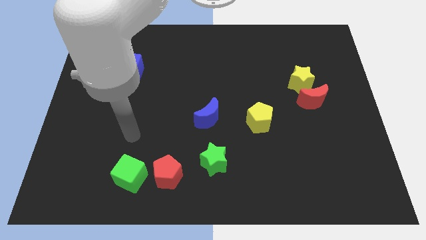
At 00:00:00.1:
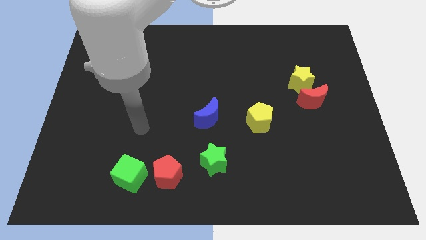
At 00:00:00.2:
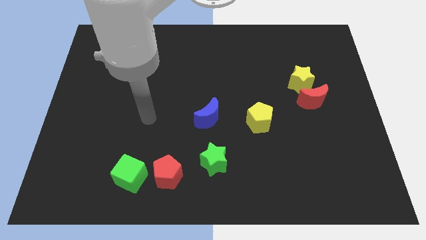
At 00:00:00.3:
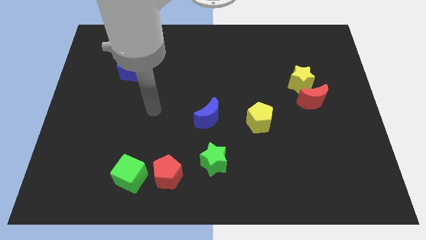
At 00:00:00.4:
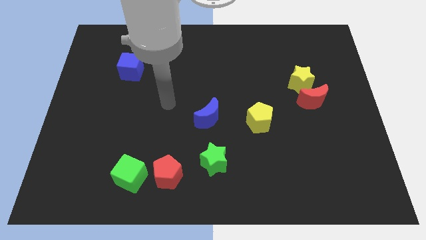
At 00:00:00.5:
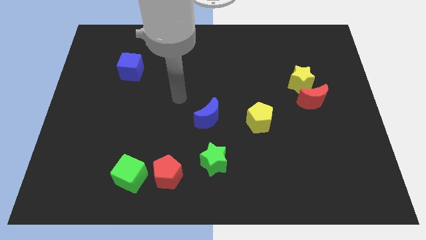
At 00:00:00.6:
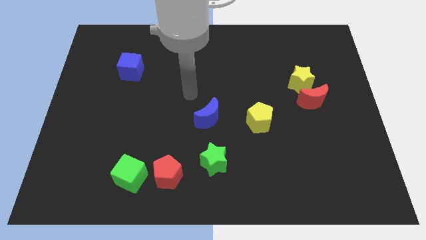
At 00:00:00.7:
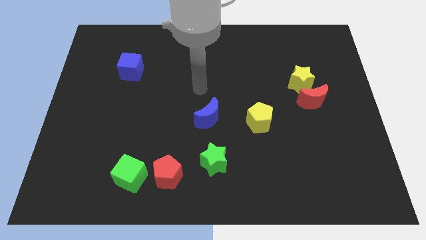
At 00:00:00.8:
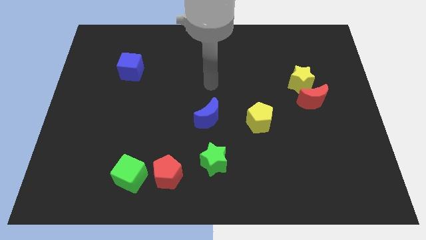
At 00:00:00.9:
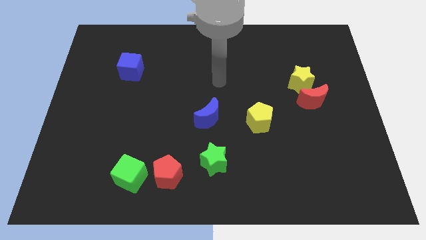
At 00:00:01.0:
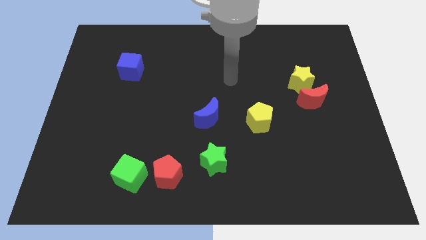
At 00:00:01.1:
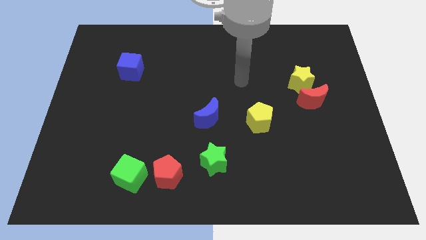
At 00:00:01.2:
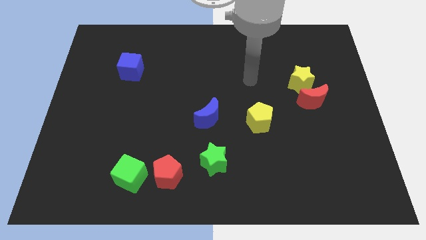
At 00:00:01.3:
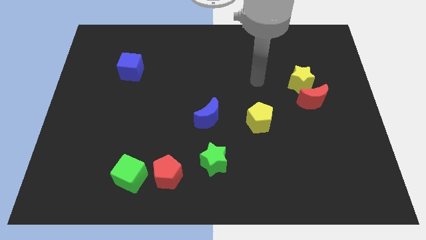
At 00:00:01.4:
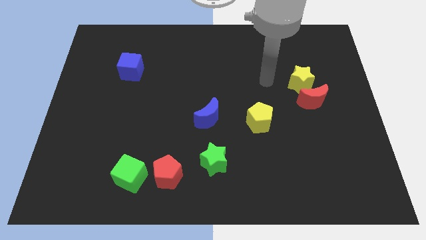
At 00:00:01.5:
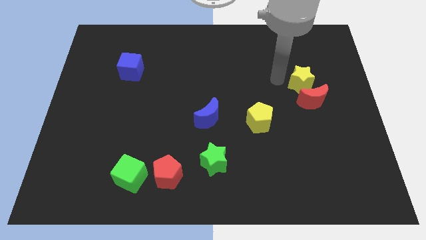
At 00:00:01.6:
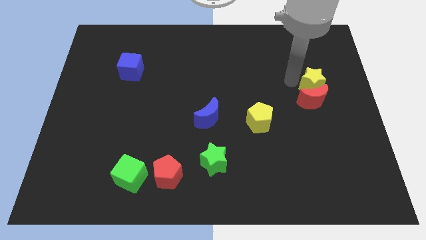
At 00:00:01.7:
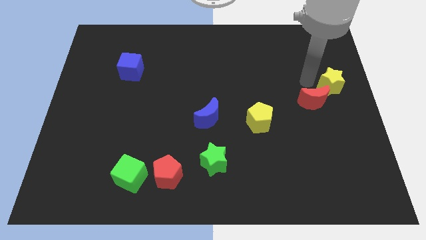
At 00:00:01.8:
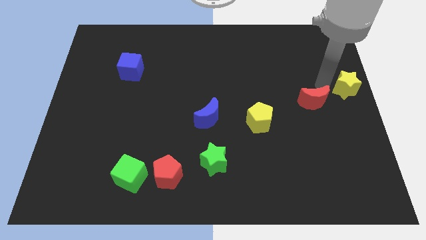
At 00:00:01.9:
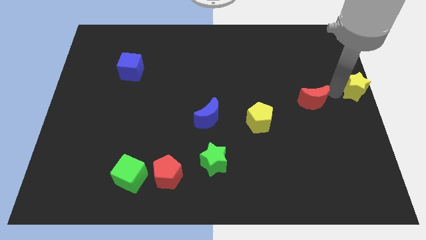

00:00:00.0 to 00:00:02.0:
move the red moon away from the yellow star

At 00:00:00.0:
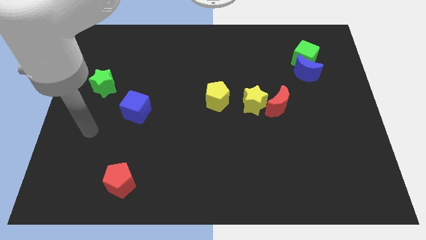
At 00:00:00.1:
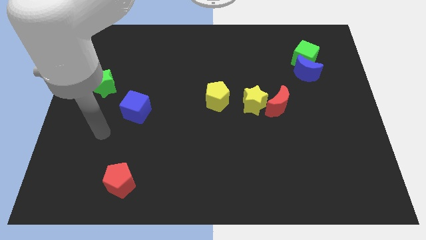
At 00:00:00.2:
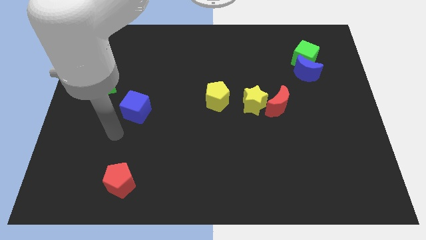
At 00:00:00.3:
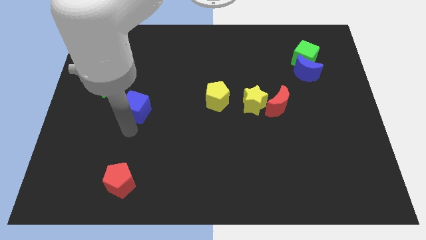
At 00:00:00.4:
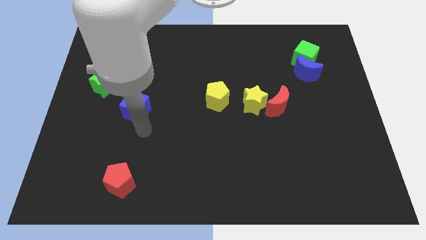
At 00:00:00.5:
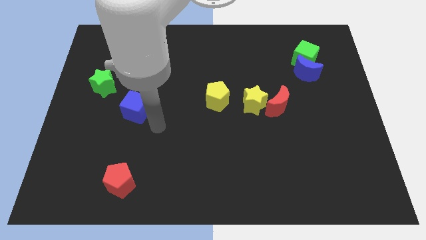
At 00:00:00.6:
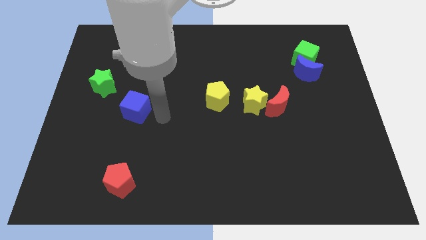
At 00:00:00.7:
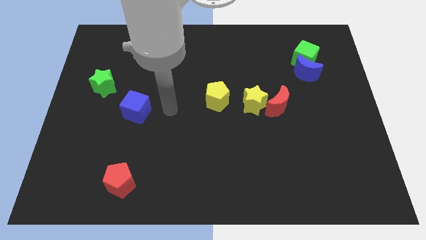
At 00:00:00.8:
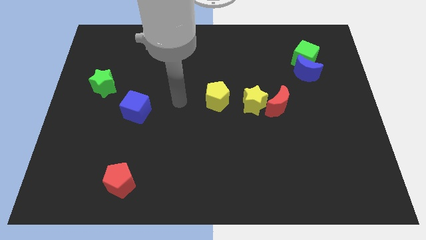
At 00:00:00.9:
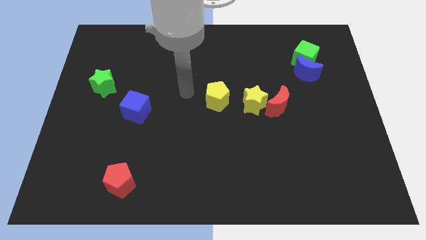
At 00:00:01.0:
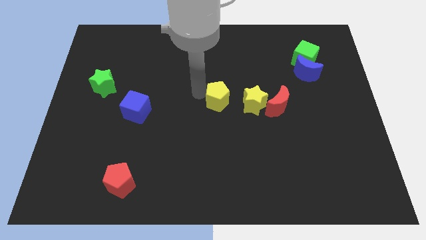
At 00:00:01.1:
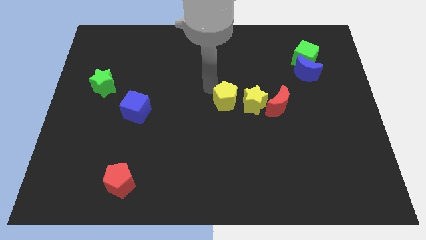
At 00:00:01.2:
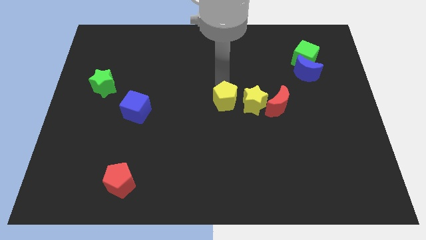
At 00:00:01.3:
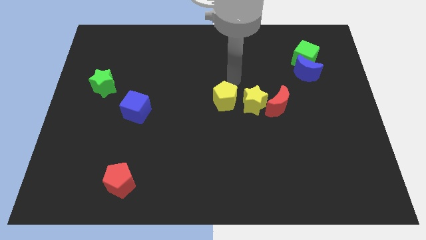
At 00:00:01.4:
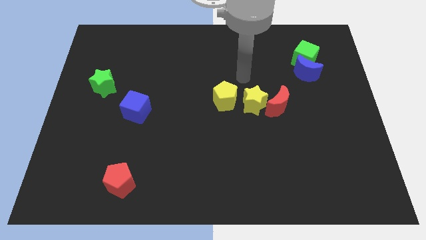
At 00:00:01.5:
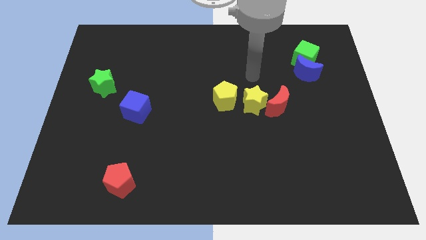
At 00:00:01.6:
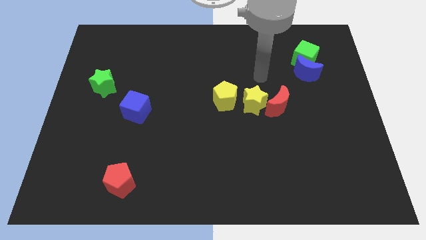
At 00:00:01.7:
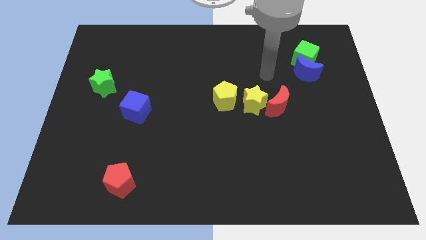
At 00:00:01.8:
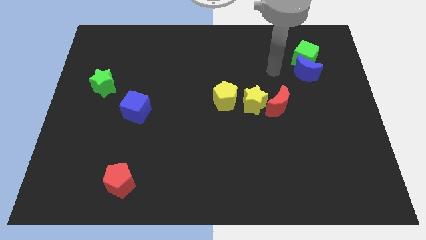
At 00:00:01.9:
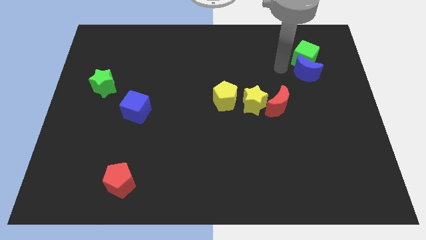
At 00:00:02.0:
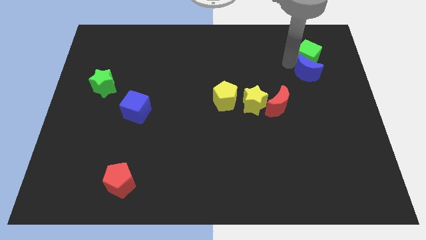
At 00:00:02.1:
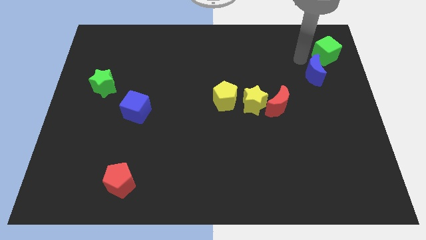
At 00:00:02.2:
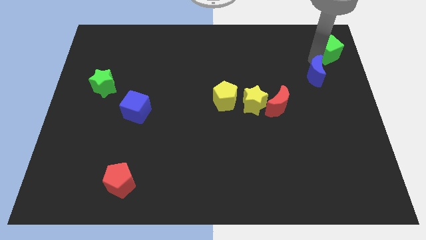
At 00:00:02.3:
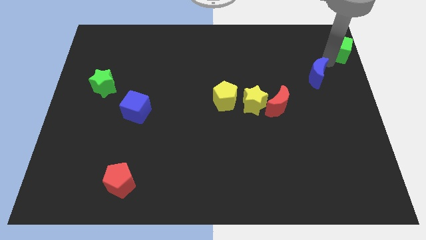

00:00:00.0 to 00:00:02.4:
pull the blue moon apart from the green cube

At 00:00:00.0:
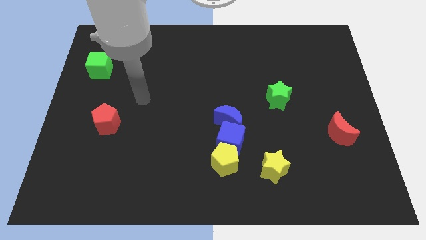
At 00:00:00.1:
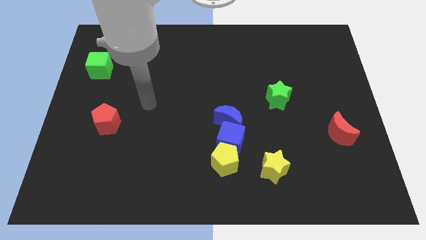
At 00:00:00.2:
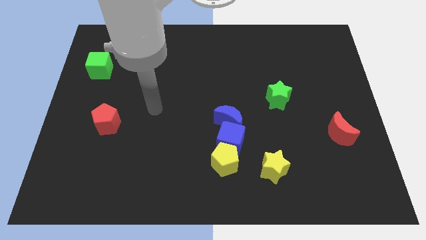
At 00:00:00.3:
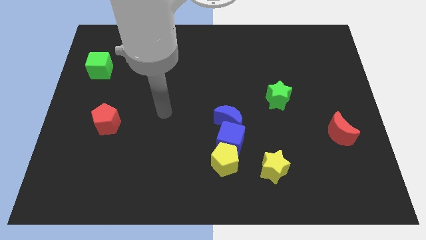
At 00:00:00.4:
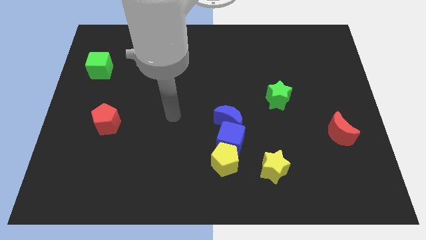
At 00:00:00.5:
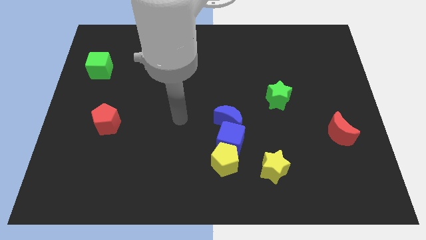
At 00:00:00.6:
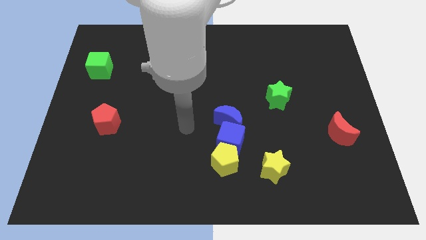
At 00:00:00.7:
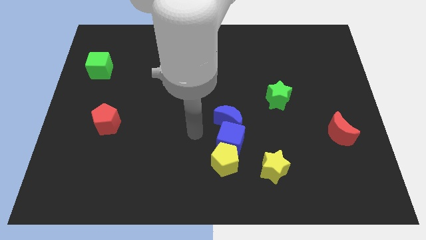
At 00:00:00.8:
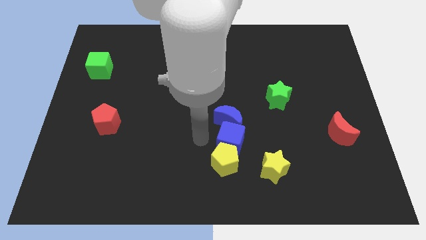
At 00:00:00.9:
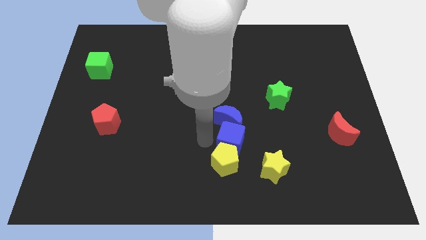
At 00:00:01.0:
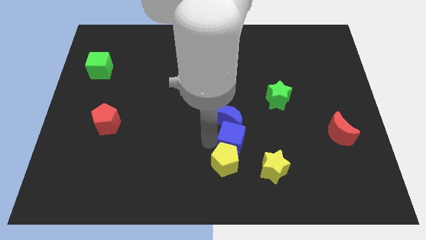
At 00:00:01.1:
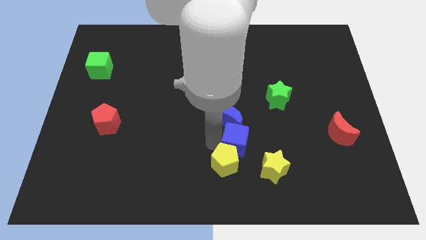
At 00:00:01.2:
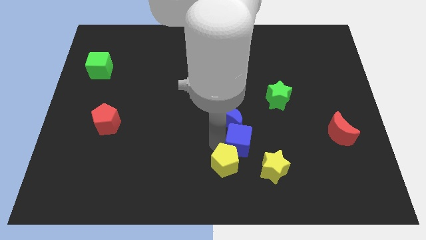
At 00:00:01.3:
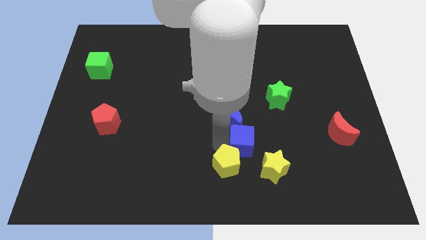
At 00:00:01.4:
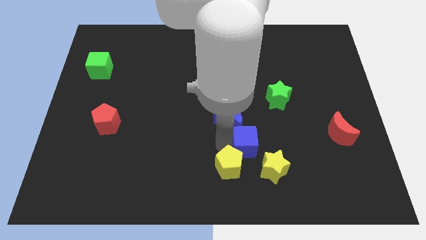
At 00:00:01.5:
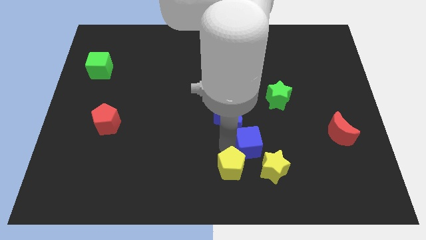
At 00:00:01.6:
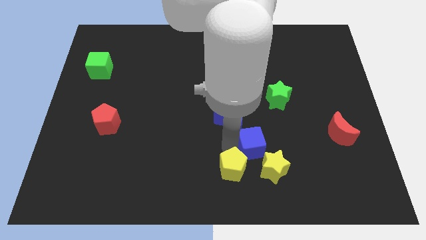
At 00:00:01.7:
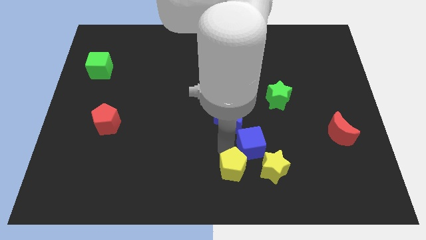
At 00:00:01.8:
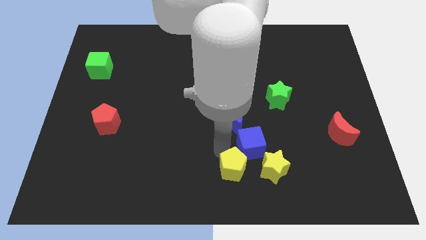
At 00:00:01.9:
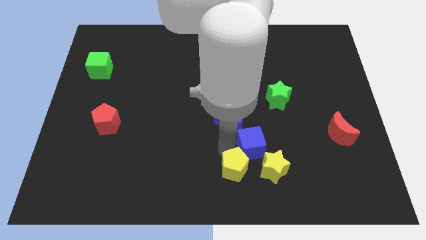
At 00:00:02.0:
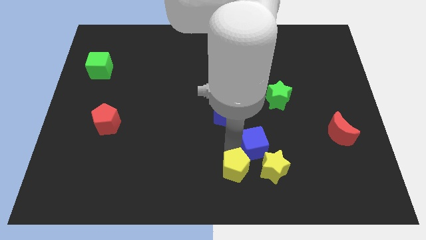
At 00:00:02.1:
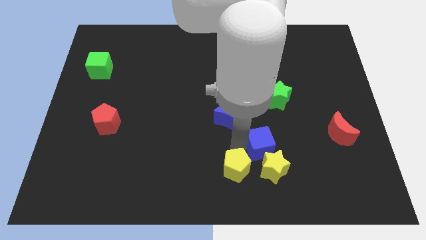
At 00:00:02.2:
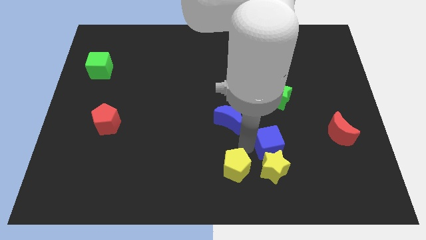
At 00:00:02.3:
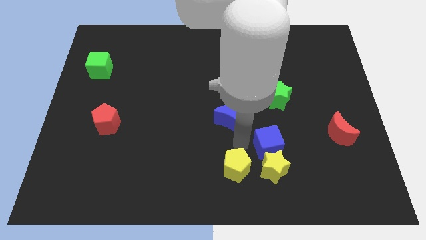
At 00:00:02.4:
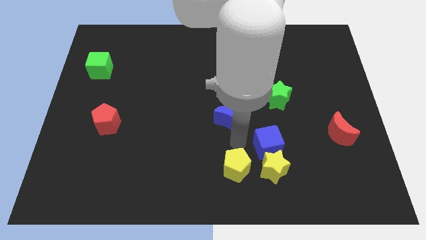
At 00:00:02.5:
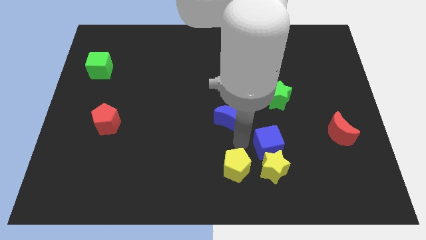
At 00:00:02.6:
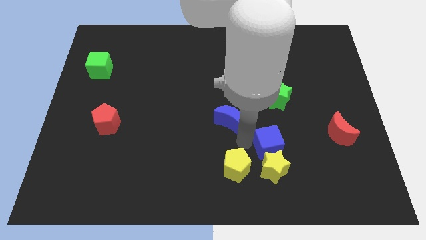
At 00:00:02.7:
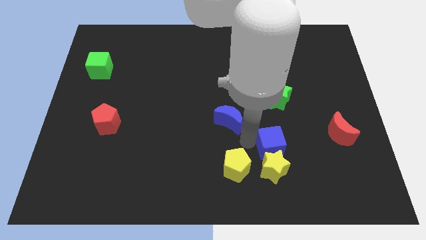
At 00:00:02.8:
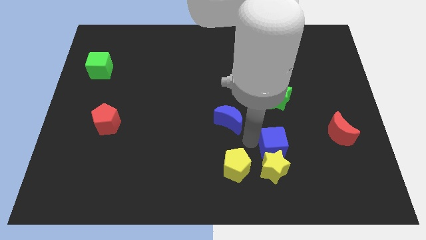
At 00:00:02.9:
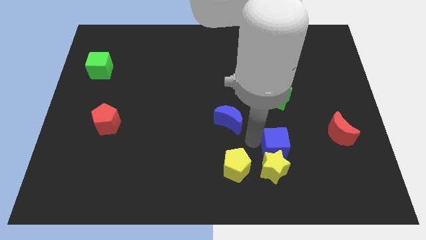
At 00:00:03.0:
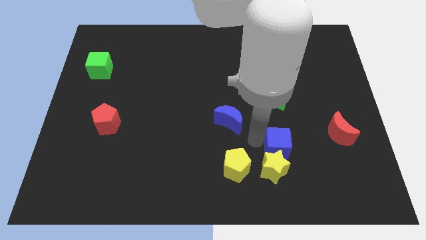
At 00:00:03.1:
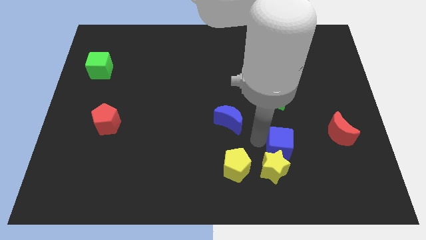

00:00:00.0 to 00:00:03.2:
separate the blue cube from the yellow pentagon and blue moon

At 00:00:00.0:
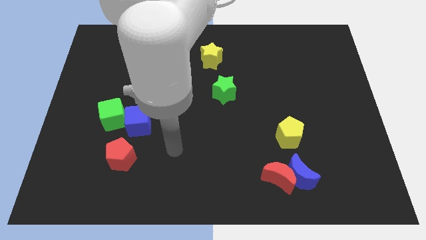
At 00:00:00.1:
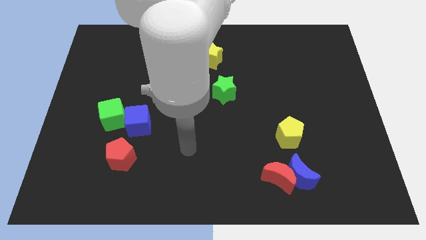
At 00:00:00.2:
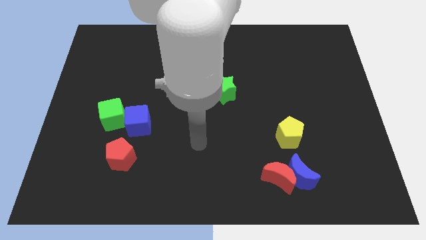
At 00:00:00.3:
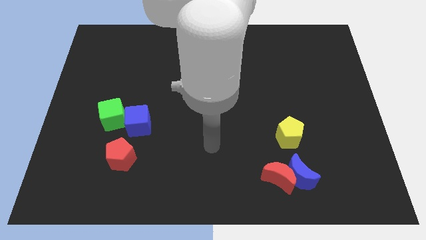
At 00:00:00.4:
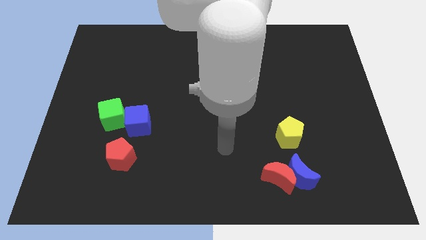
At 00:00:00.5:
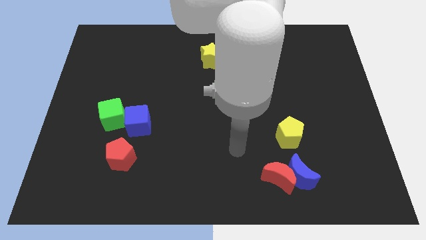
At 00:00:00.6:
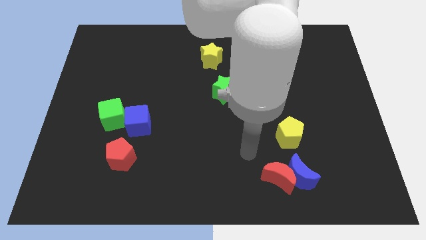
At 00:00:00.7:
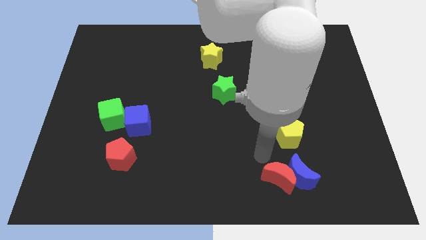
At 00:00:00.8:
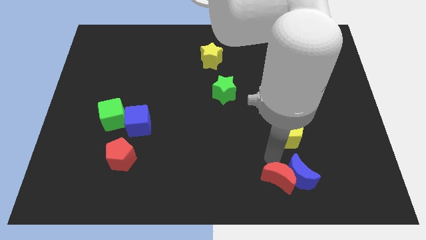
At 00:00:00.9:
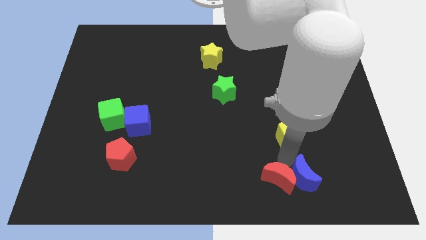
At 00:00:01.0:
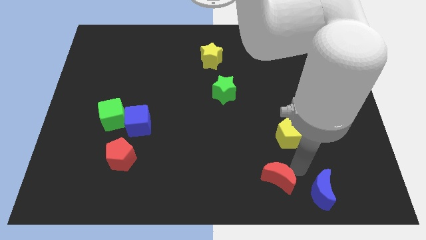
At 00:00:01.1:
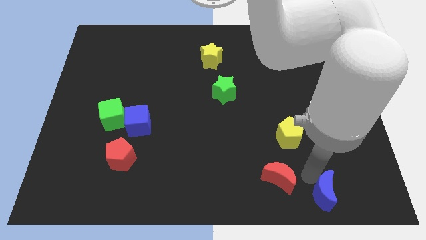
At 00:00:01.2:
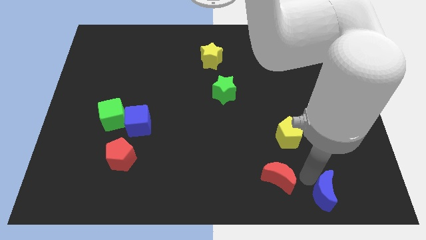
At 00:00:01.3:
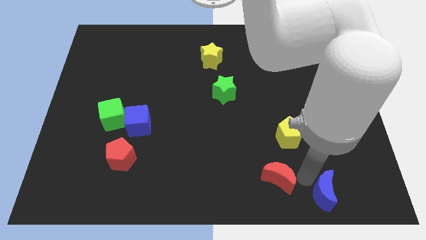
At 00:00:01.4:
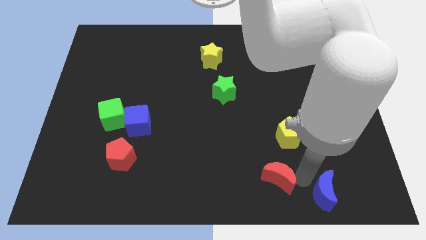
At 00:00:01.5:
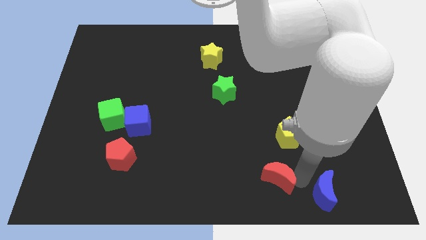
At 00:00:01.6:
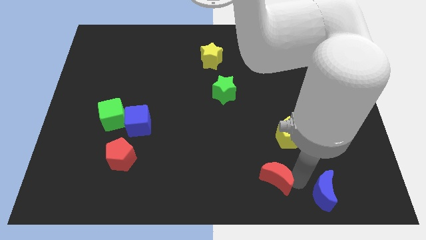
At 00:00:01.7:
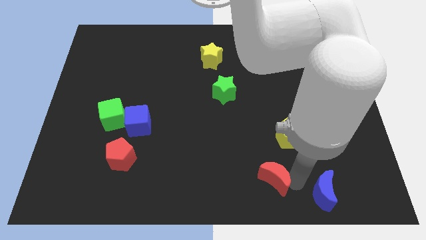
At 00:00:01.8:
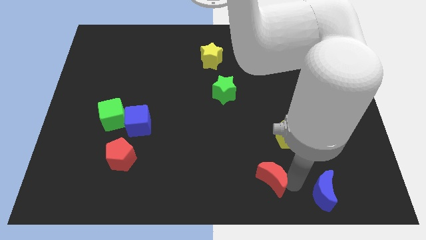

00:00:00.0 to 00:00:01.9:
move the red moon away from the blue moon
